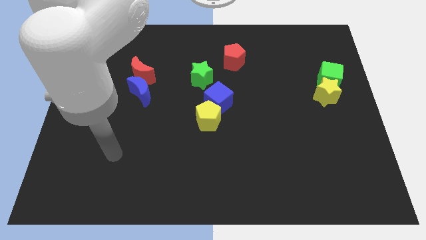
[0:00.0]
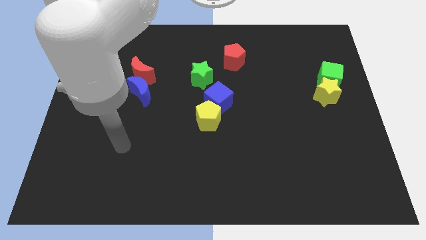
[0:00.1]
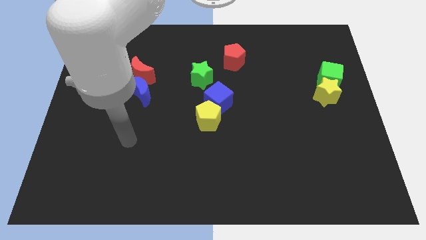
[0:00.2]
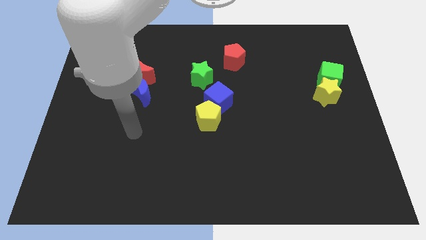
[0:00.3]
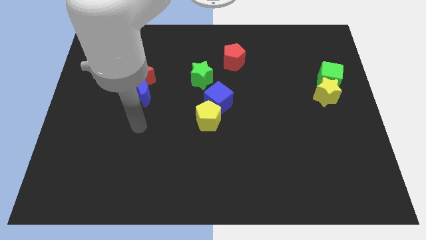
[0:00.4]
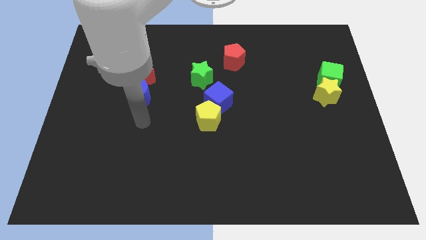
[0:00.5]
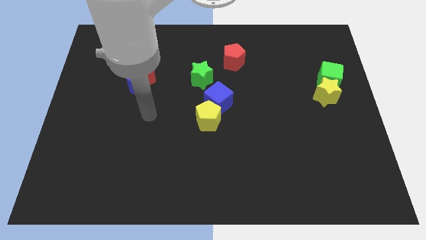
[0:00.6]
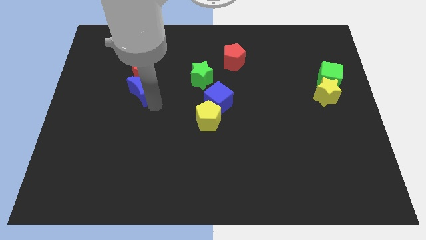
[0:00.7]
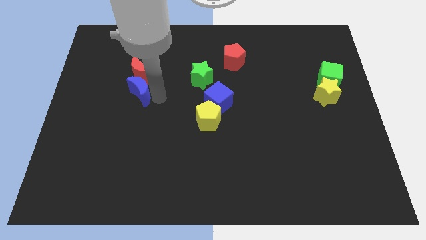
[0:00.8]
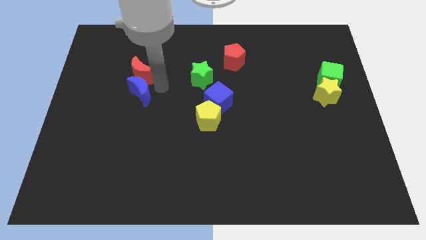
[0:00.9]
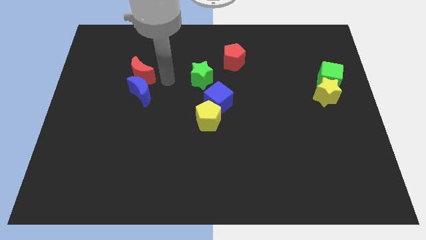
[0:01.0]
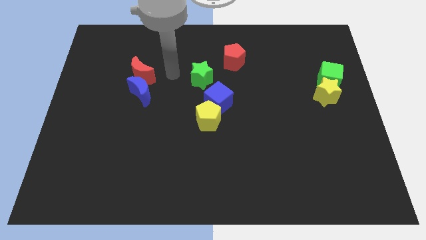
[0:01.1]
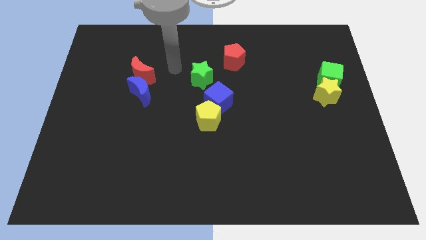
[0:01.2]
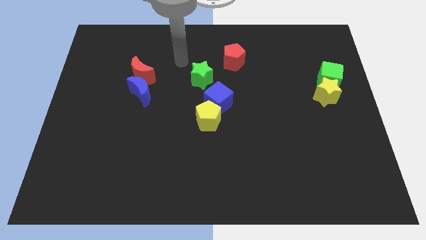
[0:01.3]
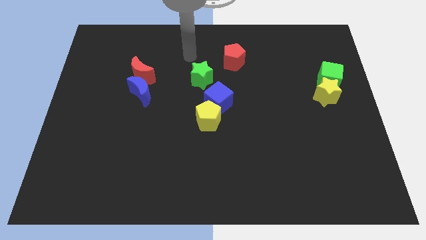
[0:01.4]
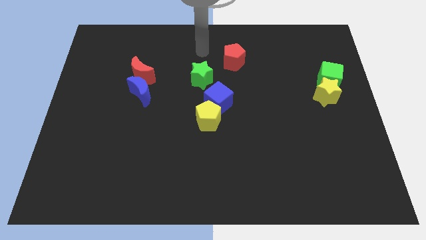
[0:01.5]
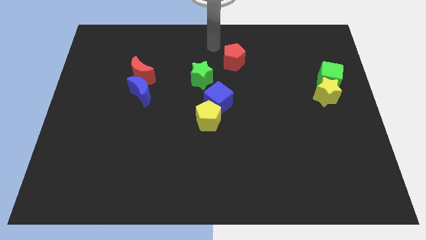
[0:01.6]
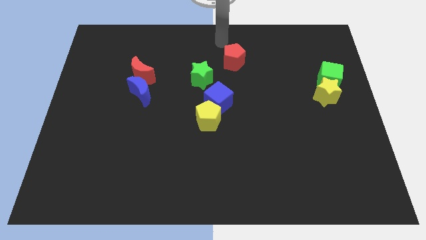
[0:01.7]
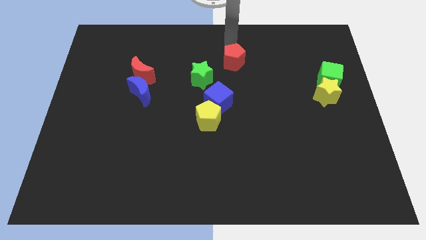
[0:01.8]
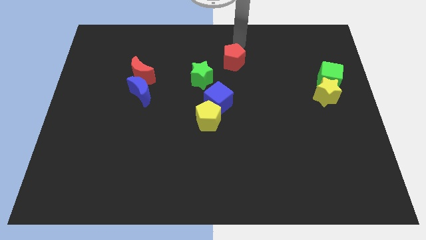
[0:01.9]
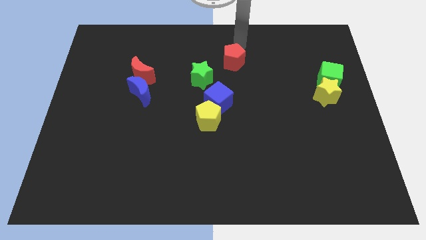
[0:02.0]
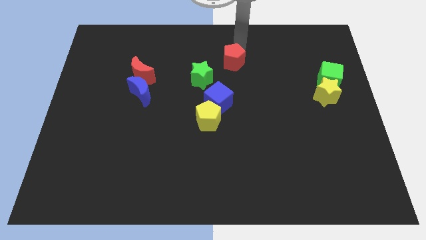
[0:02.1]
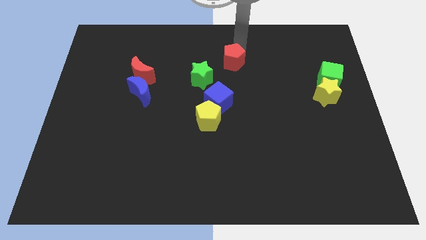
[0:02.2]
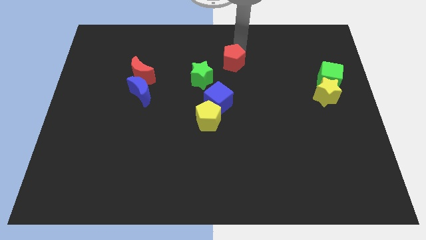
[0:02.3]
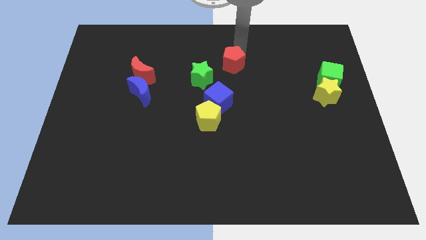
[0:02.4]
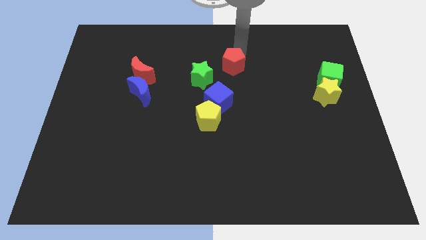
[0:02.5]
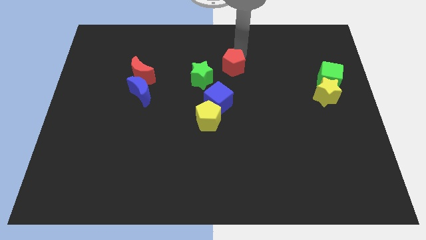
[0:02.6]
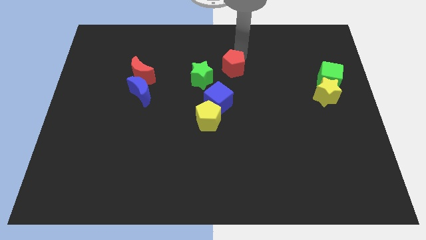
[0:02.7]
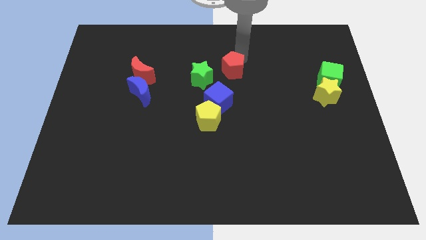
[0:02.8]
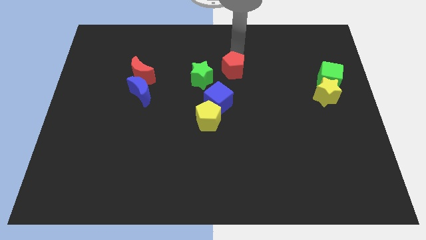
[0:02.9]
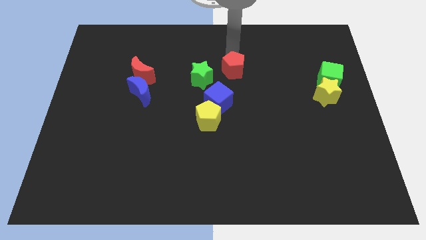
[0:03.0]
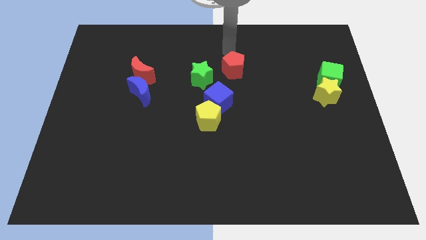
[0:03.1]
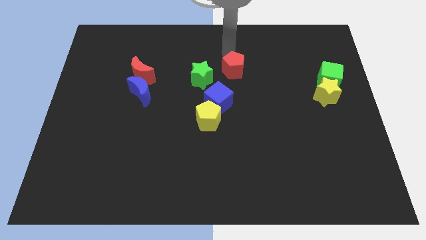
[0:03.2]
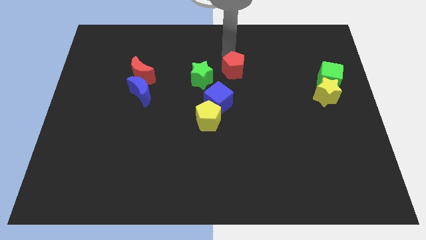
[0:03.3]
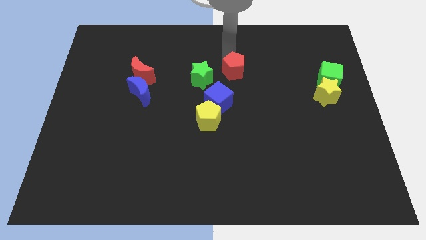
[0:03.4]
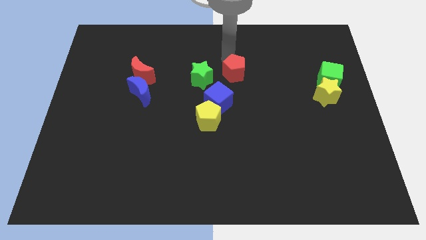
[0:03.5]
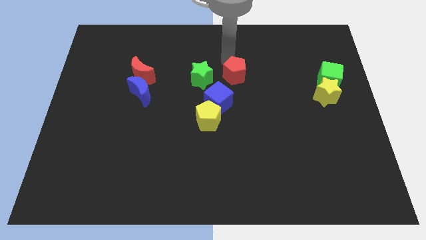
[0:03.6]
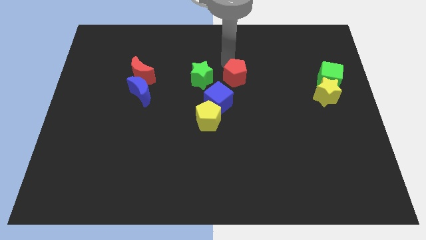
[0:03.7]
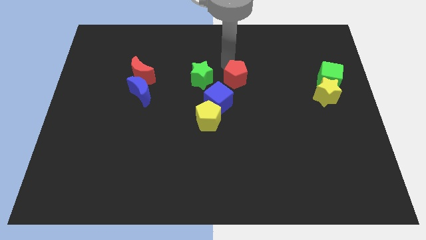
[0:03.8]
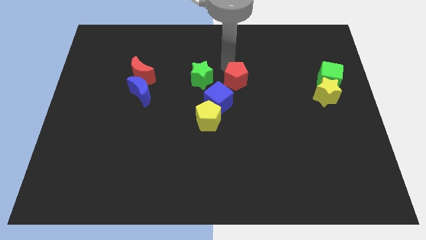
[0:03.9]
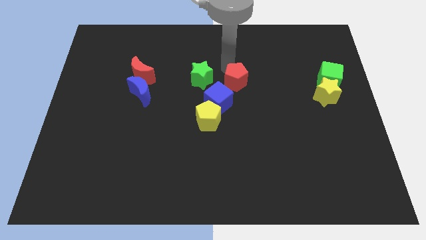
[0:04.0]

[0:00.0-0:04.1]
slightly push the red pentagon downwards

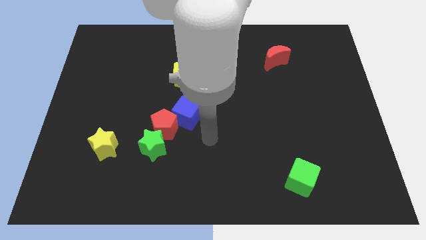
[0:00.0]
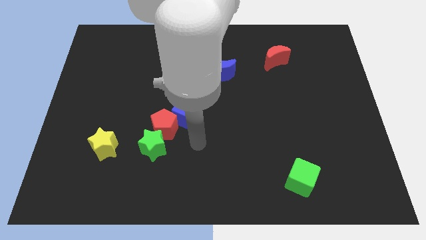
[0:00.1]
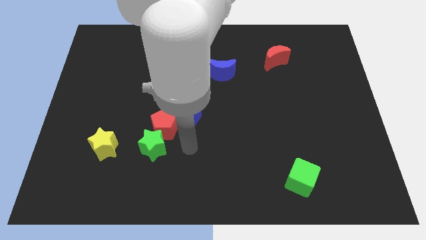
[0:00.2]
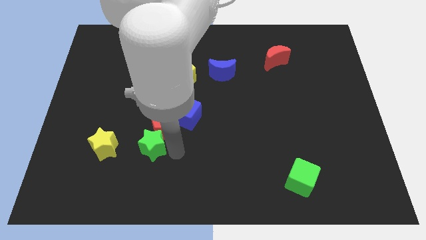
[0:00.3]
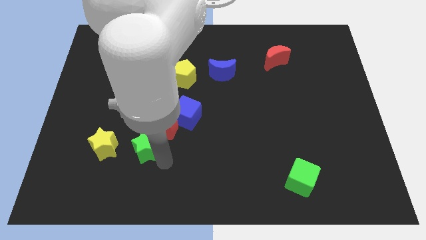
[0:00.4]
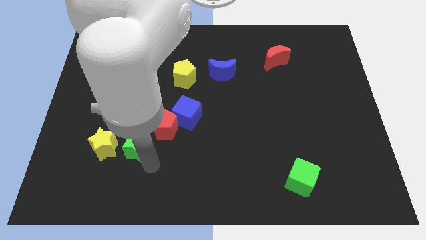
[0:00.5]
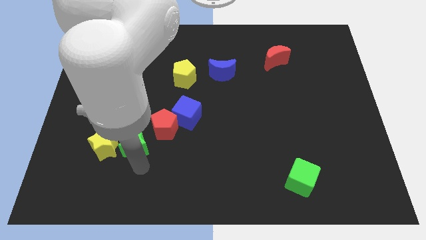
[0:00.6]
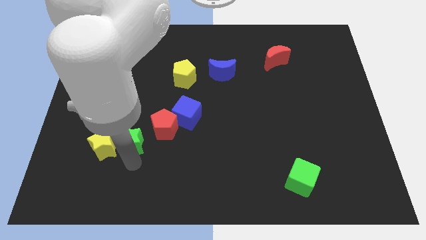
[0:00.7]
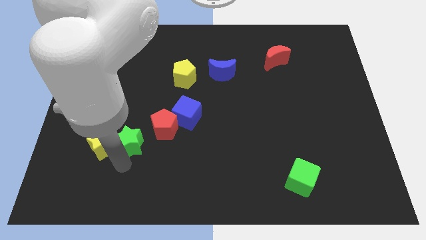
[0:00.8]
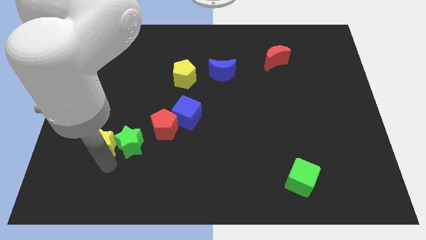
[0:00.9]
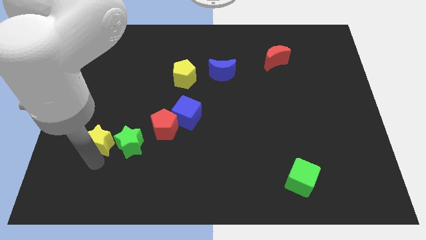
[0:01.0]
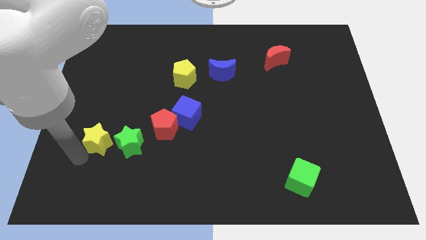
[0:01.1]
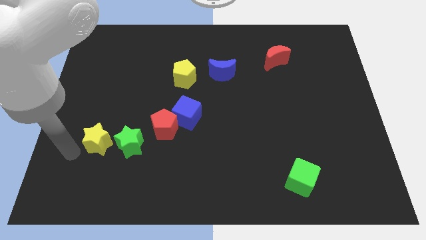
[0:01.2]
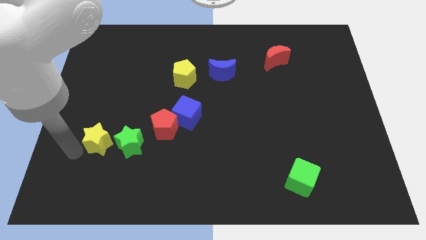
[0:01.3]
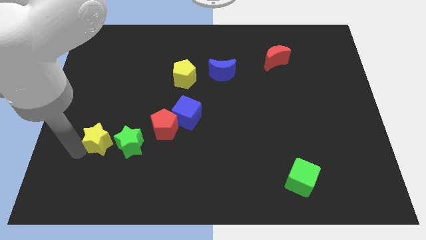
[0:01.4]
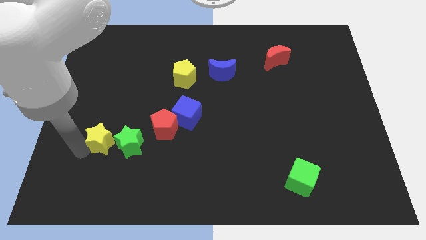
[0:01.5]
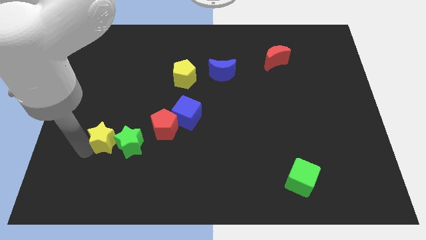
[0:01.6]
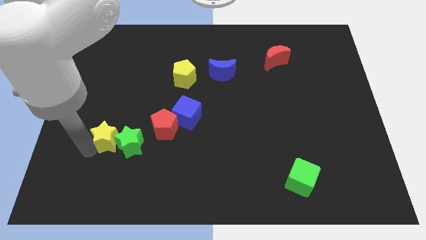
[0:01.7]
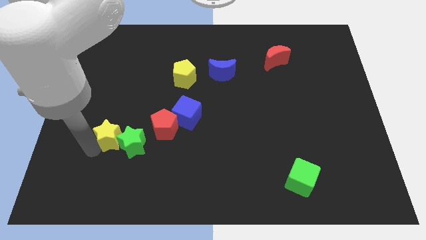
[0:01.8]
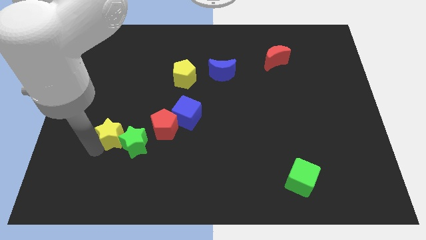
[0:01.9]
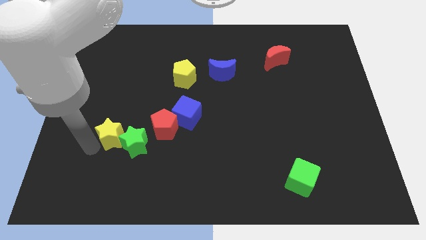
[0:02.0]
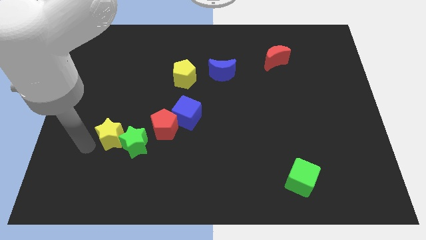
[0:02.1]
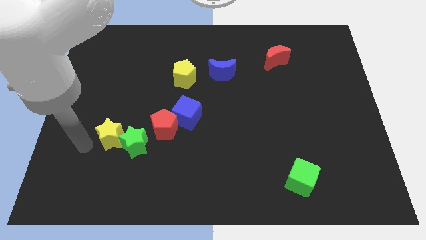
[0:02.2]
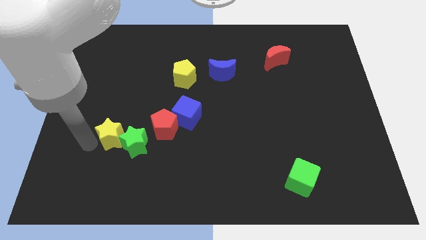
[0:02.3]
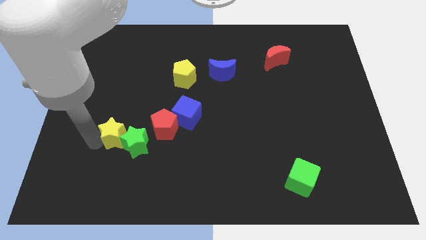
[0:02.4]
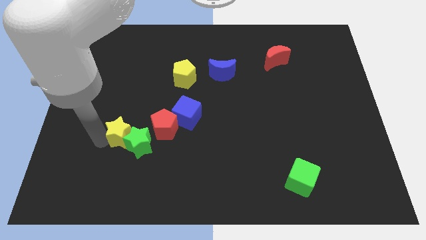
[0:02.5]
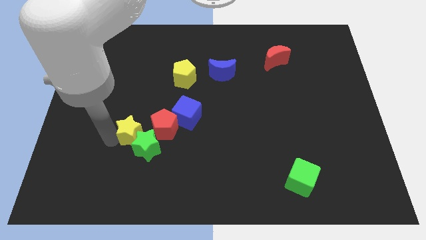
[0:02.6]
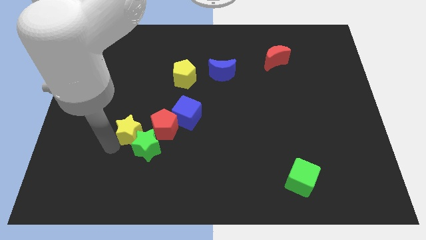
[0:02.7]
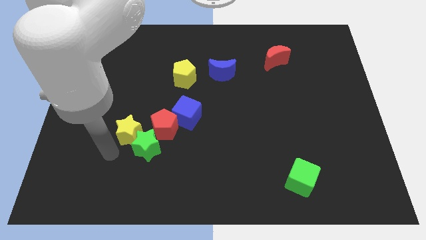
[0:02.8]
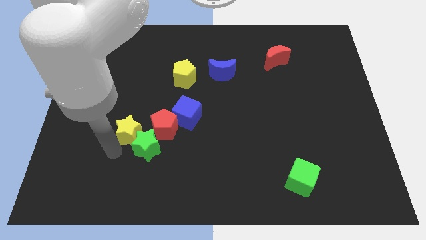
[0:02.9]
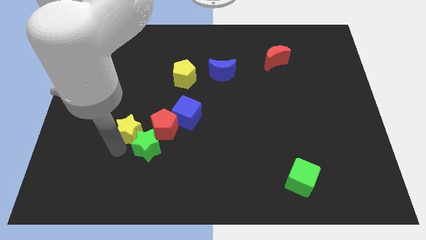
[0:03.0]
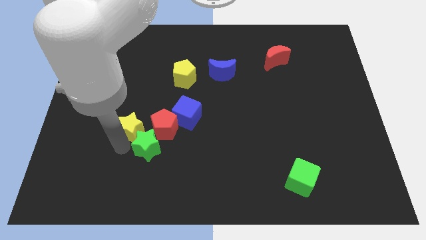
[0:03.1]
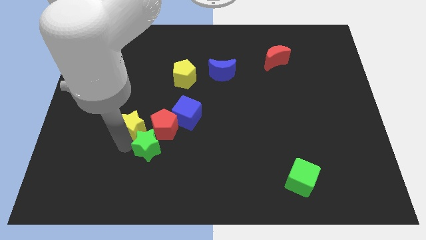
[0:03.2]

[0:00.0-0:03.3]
slightly move the yellow star upwards and then right

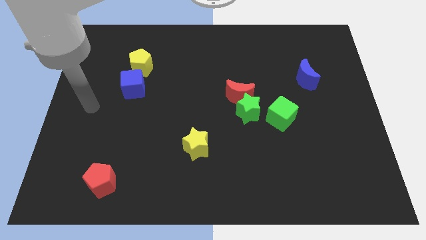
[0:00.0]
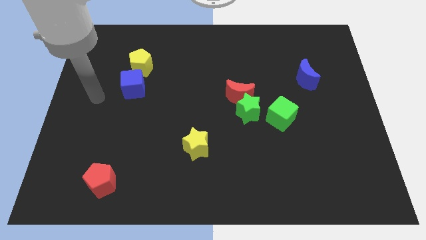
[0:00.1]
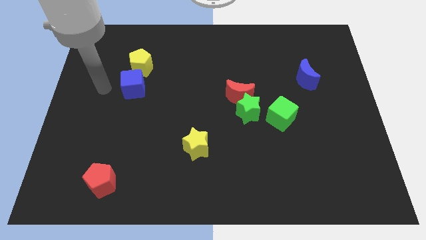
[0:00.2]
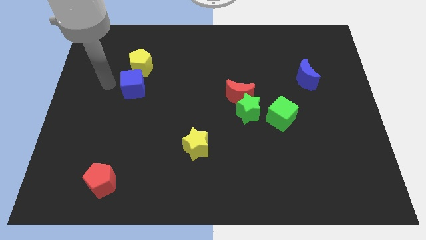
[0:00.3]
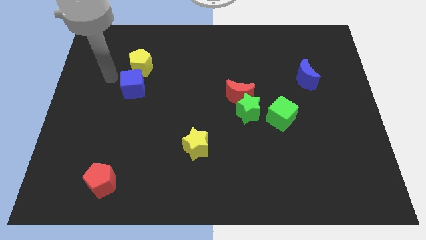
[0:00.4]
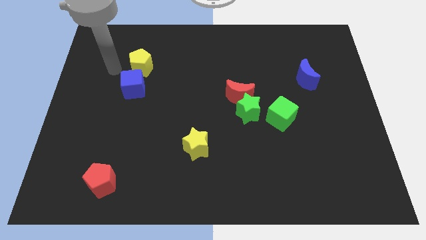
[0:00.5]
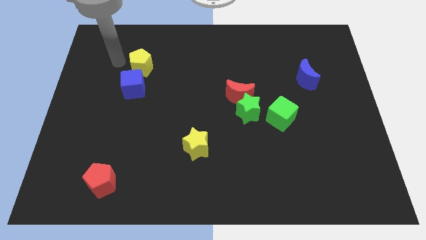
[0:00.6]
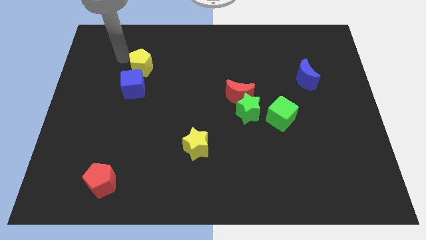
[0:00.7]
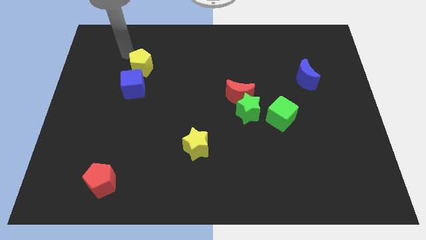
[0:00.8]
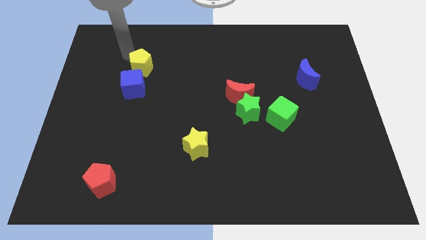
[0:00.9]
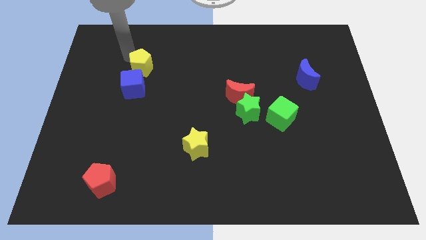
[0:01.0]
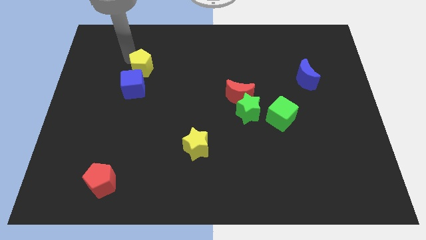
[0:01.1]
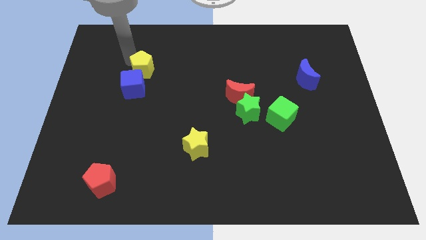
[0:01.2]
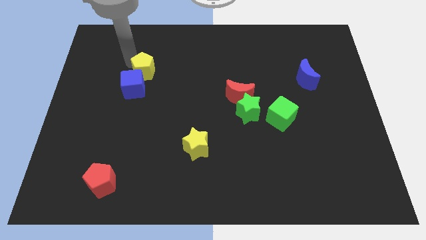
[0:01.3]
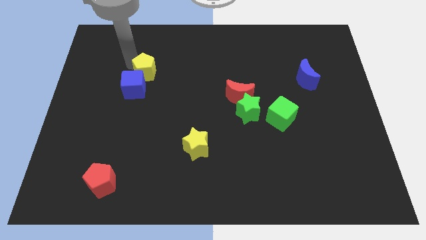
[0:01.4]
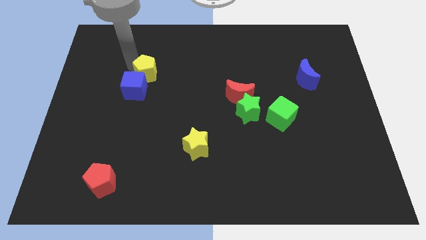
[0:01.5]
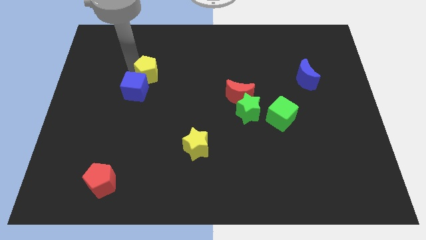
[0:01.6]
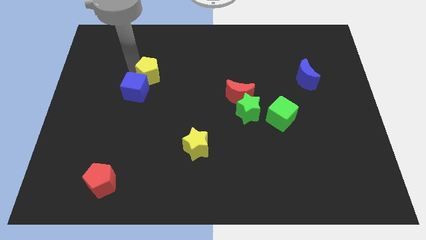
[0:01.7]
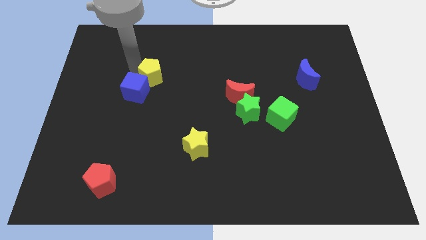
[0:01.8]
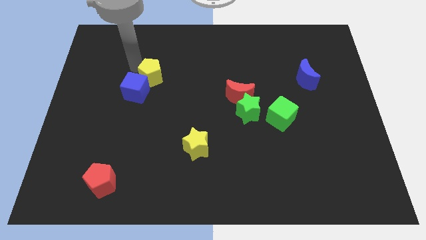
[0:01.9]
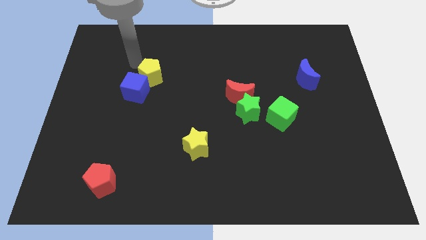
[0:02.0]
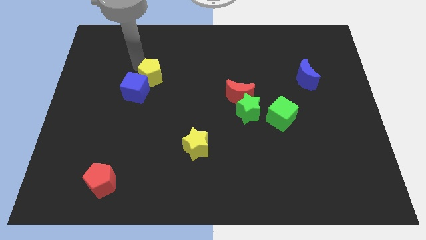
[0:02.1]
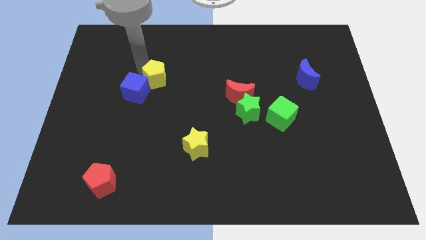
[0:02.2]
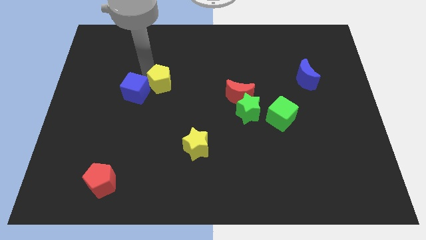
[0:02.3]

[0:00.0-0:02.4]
move the yellow pentagon a little downwards and to the right
